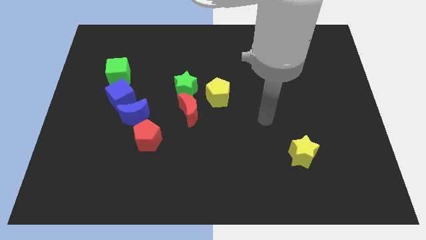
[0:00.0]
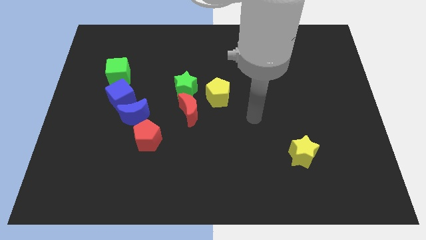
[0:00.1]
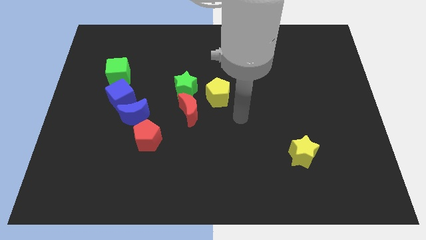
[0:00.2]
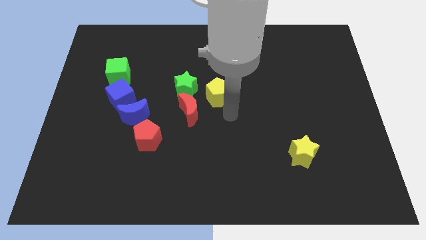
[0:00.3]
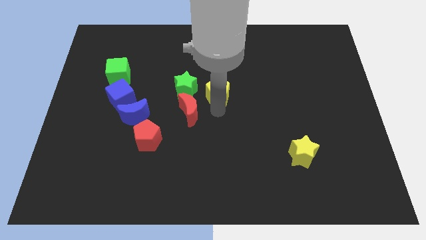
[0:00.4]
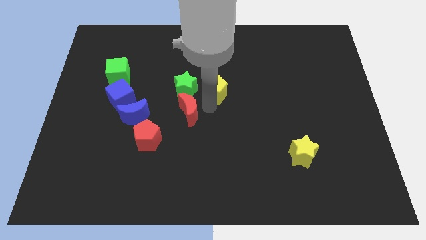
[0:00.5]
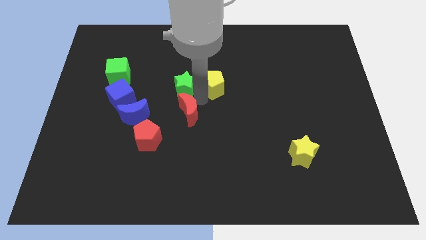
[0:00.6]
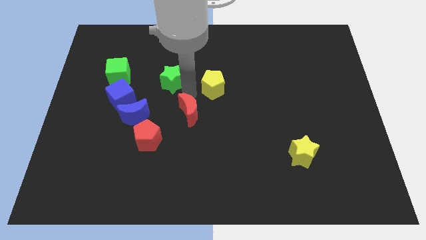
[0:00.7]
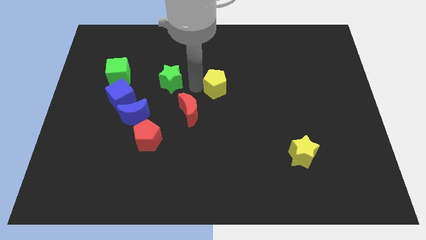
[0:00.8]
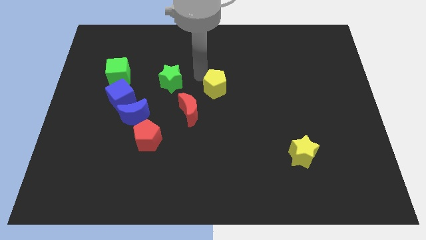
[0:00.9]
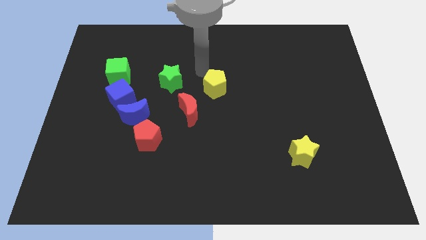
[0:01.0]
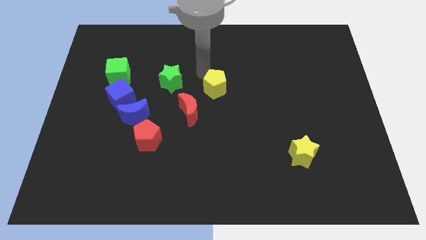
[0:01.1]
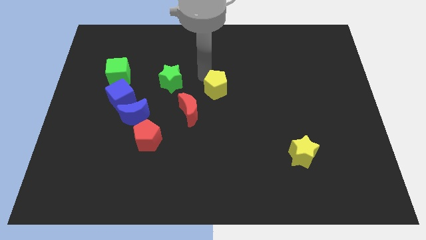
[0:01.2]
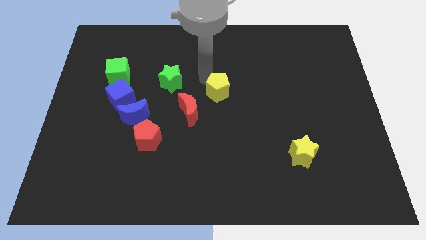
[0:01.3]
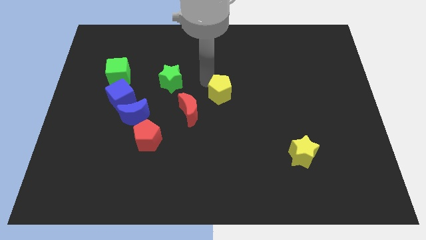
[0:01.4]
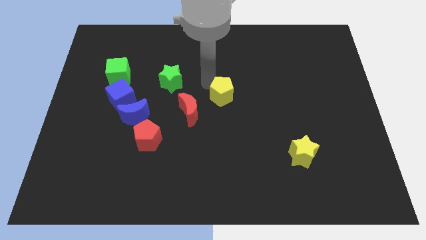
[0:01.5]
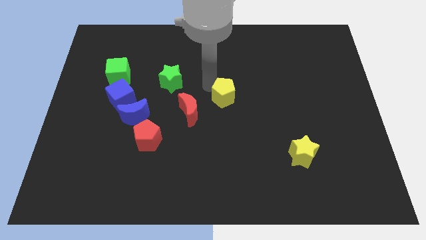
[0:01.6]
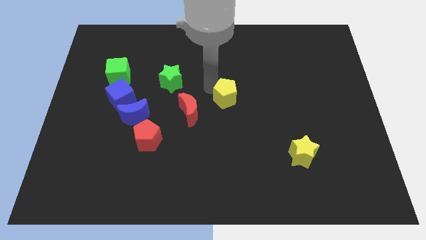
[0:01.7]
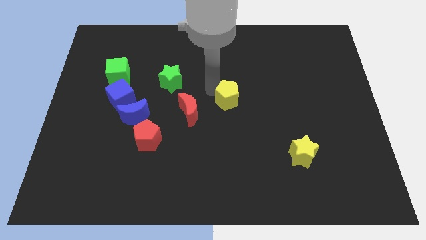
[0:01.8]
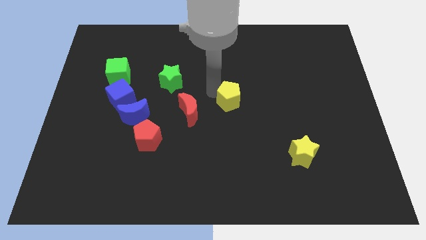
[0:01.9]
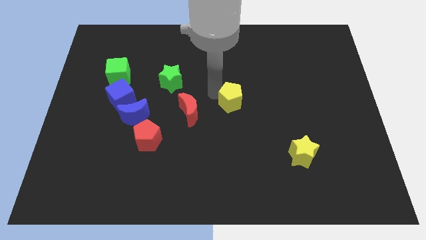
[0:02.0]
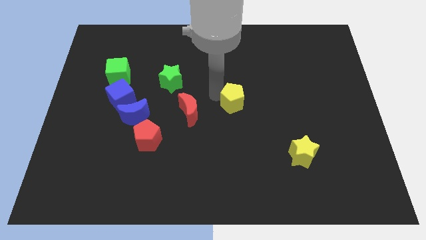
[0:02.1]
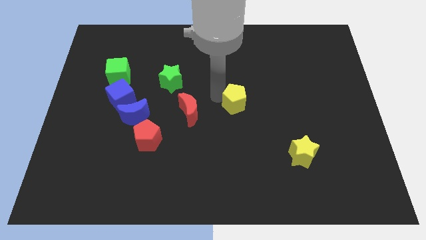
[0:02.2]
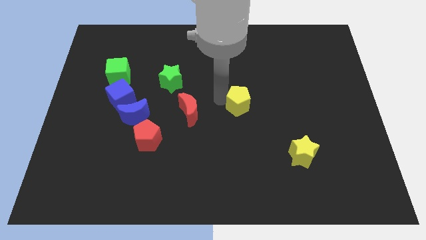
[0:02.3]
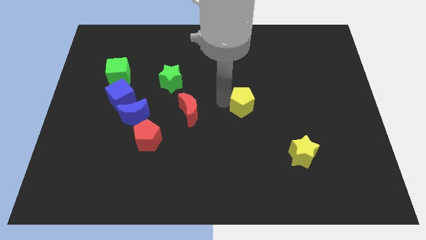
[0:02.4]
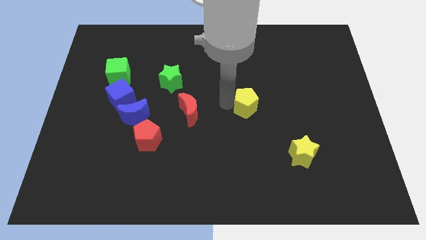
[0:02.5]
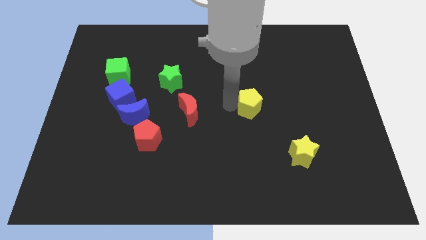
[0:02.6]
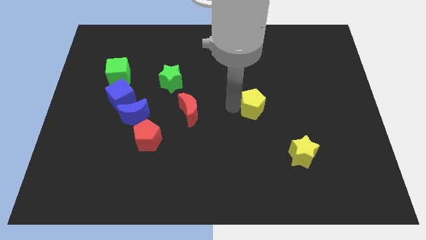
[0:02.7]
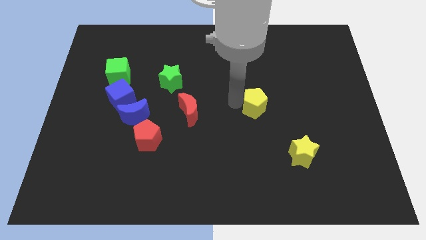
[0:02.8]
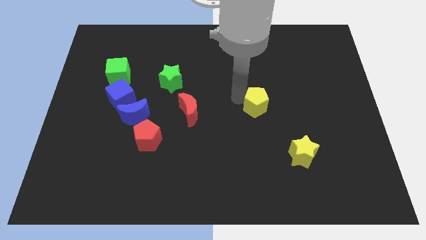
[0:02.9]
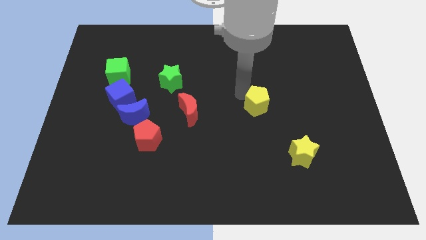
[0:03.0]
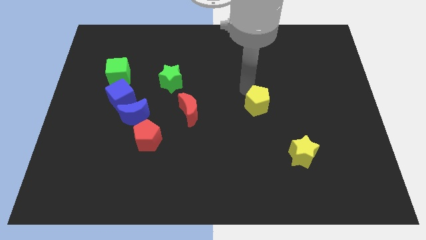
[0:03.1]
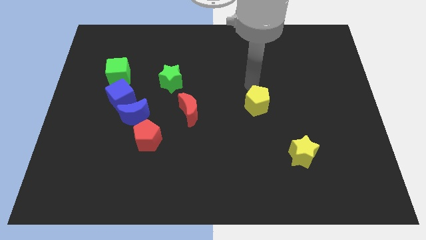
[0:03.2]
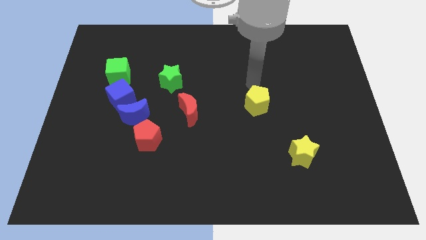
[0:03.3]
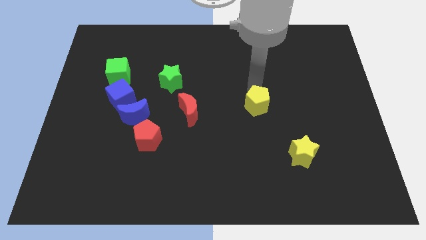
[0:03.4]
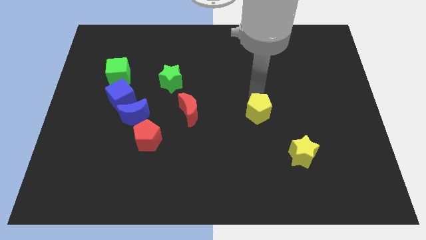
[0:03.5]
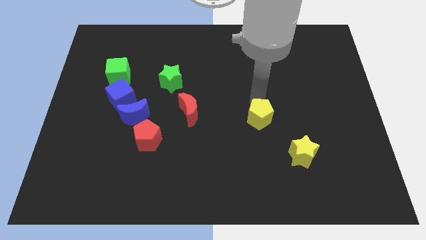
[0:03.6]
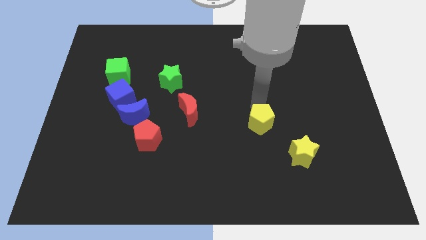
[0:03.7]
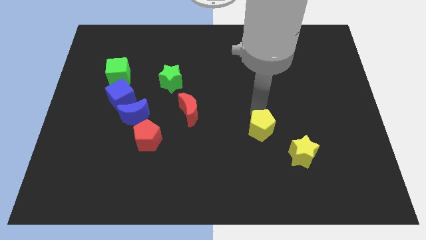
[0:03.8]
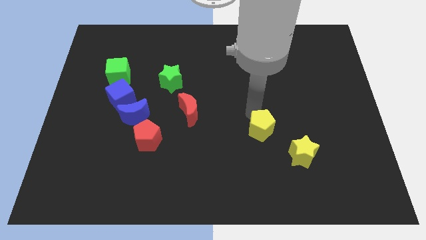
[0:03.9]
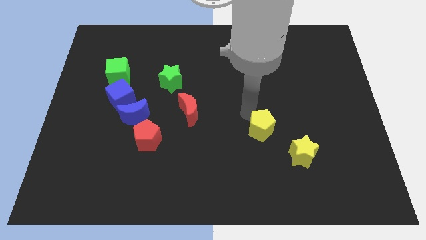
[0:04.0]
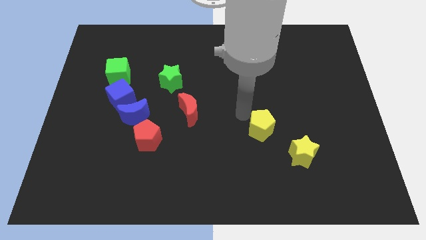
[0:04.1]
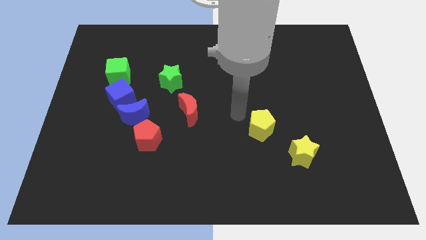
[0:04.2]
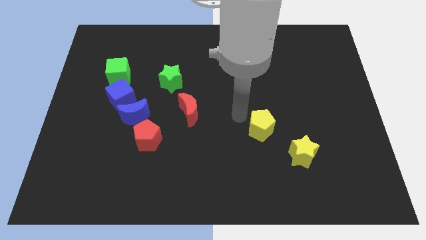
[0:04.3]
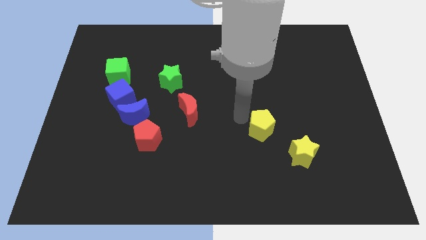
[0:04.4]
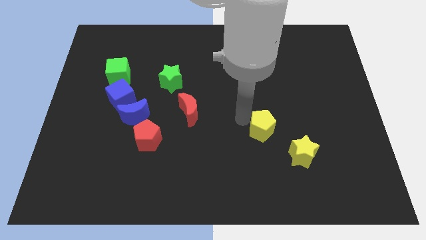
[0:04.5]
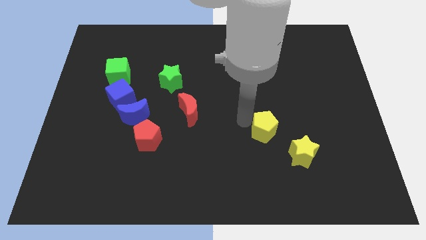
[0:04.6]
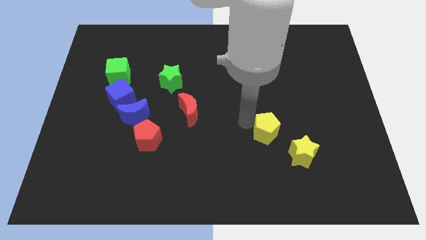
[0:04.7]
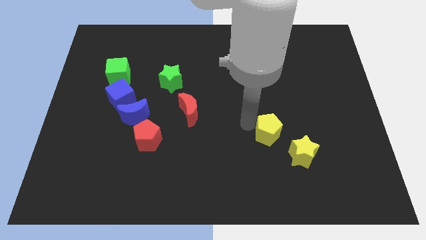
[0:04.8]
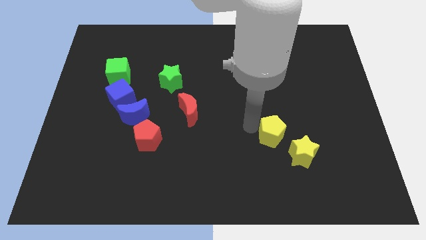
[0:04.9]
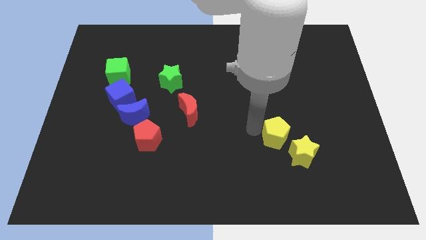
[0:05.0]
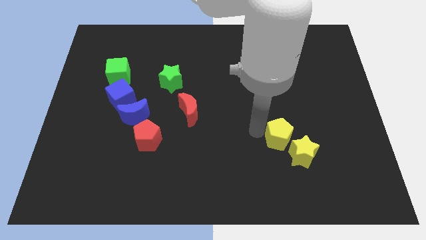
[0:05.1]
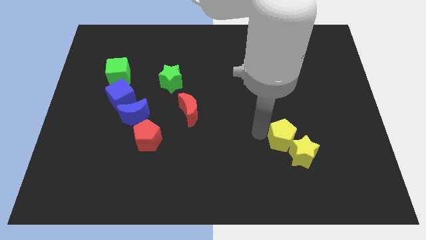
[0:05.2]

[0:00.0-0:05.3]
slide the yellow pentagon to the yellow star

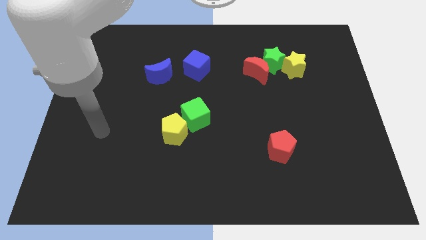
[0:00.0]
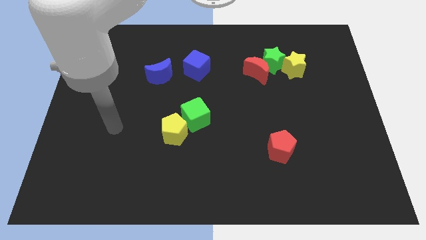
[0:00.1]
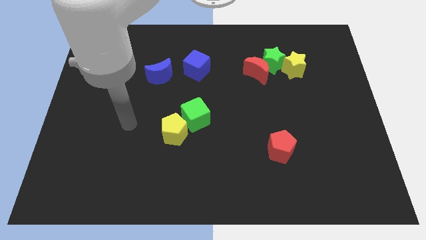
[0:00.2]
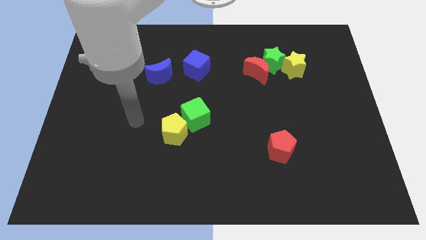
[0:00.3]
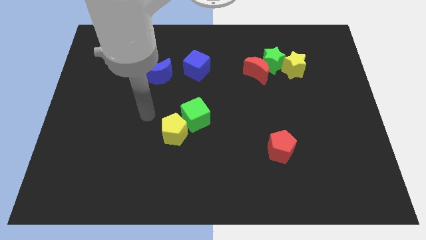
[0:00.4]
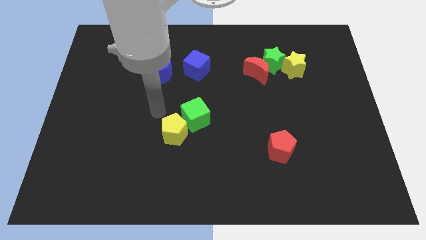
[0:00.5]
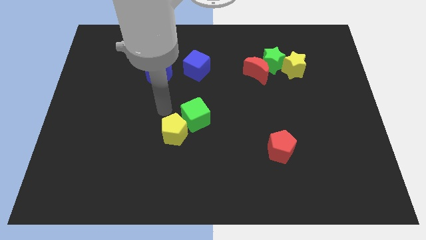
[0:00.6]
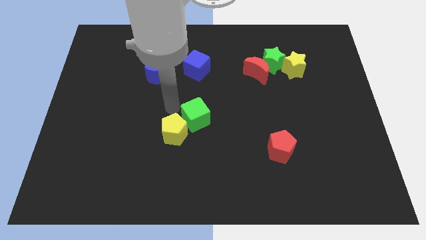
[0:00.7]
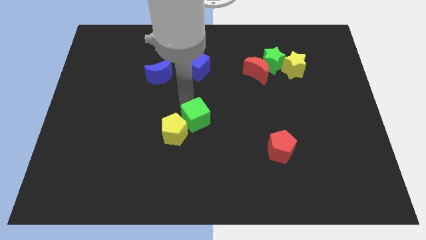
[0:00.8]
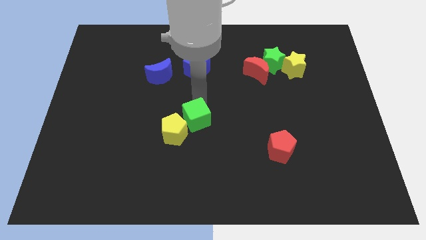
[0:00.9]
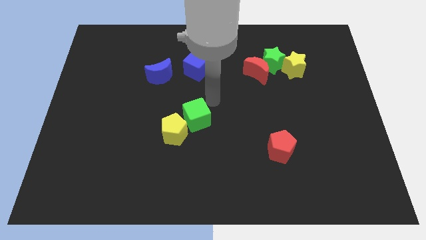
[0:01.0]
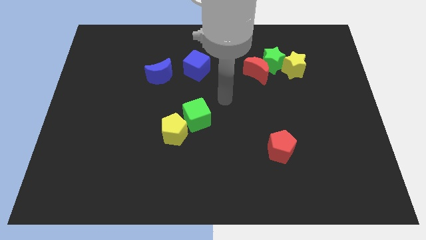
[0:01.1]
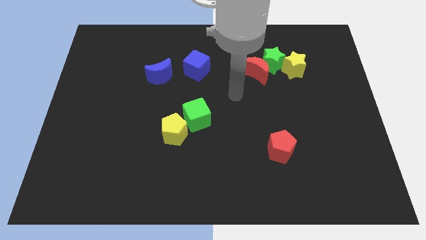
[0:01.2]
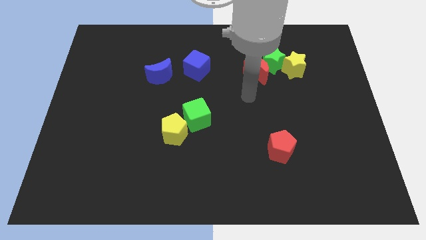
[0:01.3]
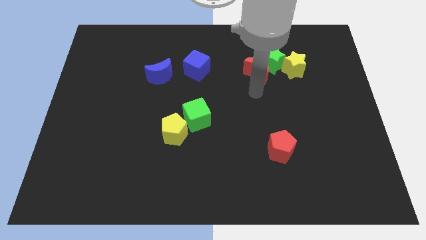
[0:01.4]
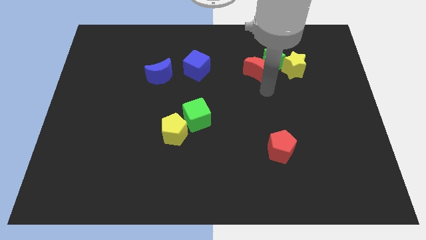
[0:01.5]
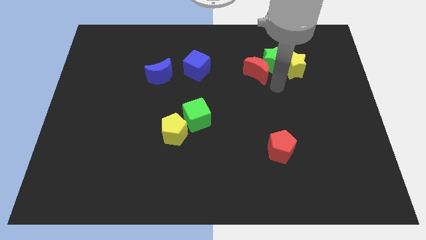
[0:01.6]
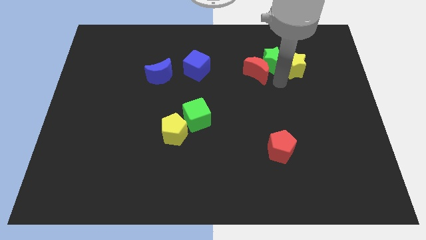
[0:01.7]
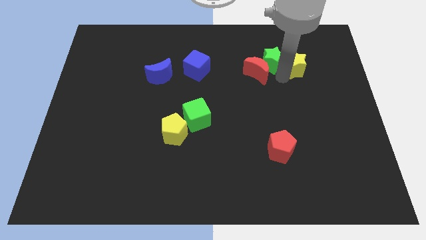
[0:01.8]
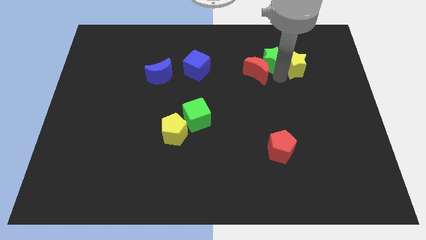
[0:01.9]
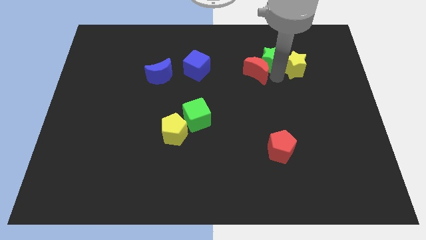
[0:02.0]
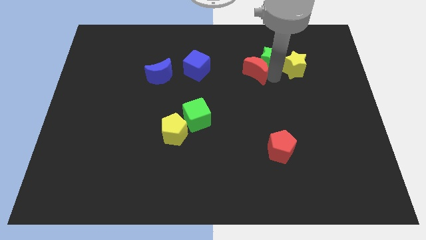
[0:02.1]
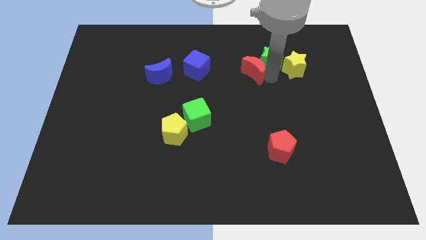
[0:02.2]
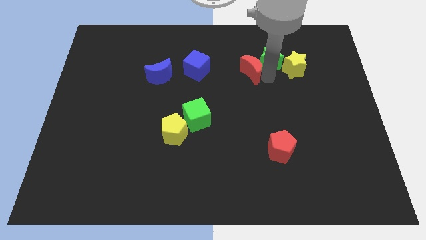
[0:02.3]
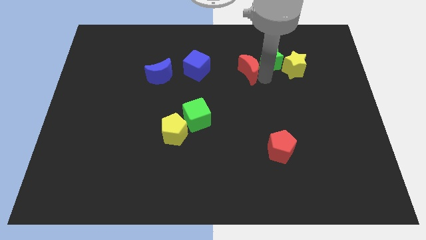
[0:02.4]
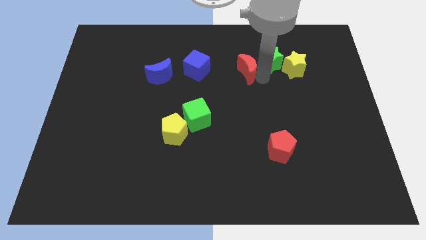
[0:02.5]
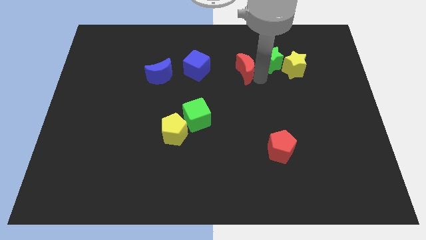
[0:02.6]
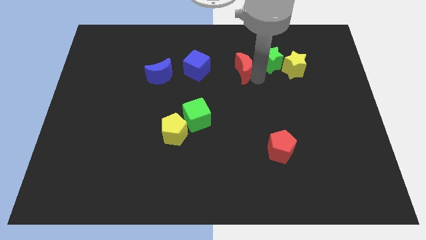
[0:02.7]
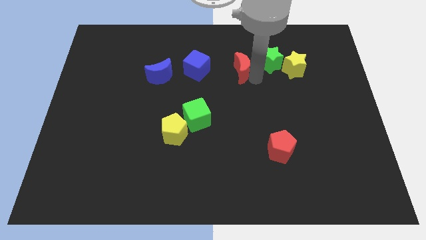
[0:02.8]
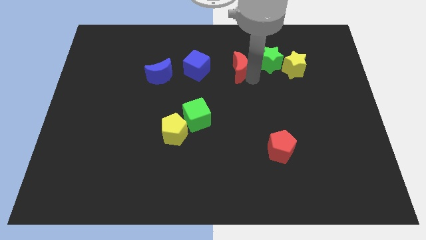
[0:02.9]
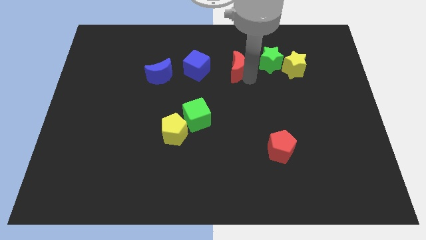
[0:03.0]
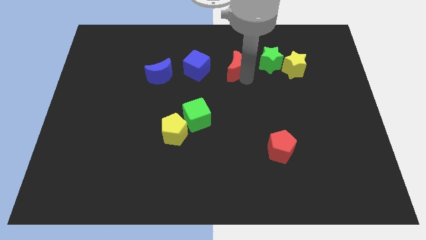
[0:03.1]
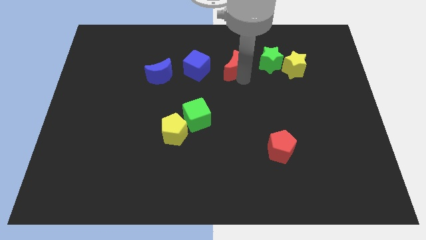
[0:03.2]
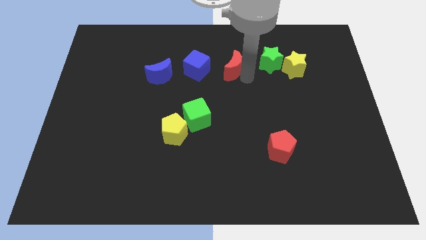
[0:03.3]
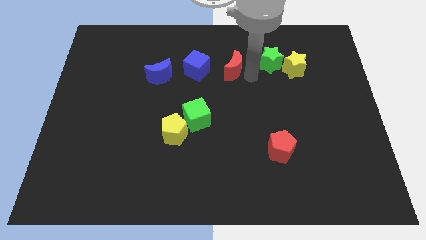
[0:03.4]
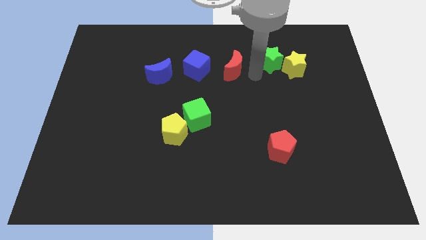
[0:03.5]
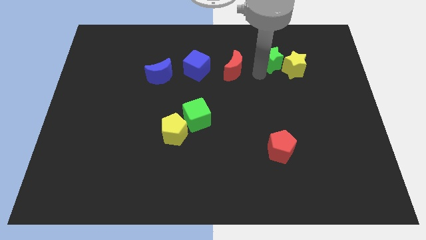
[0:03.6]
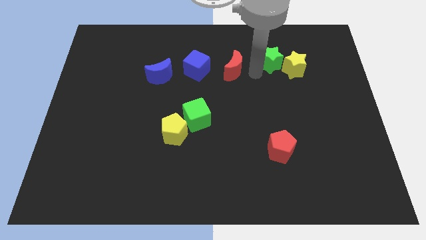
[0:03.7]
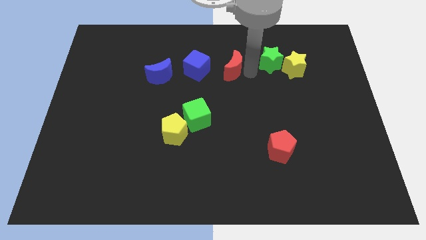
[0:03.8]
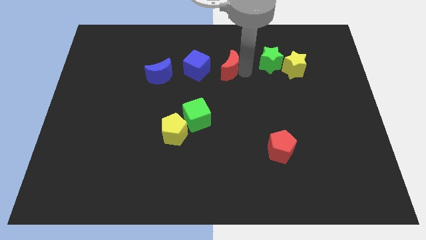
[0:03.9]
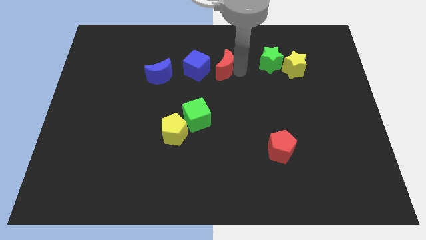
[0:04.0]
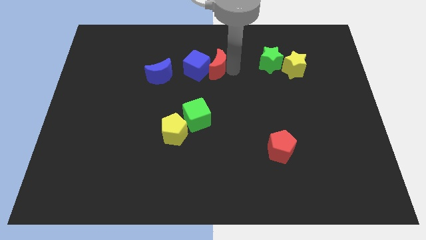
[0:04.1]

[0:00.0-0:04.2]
slide the red moon towards the blue cube
